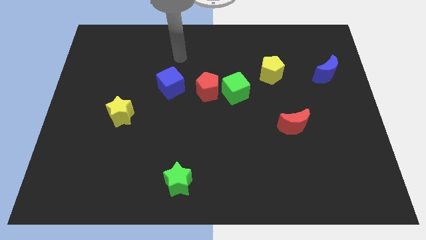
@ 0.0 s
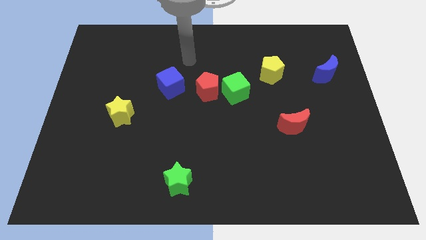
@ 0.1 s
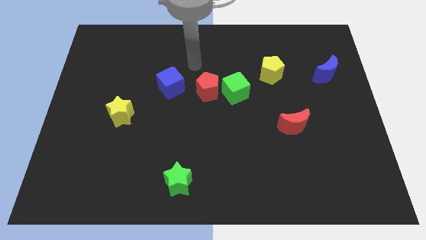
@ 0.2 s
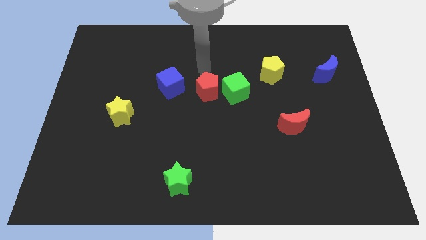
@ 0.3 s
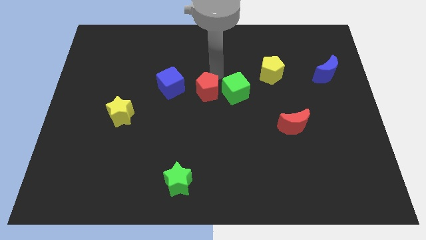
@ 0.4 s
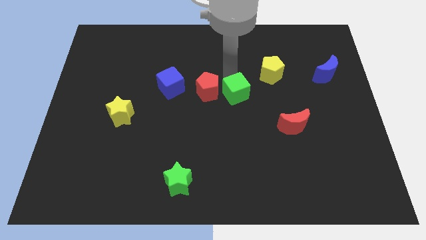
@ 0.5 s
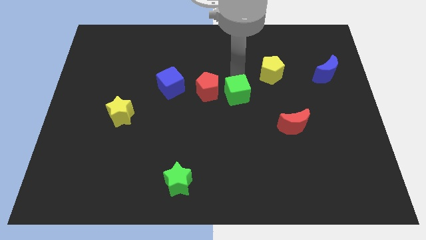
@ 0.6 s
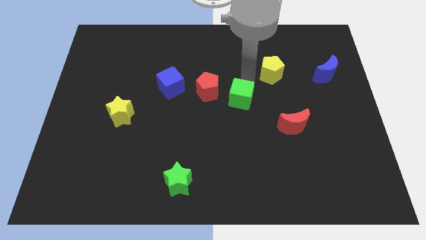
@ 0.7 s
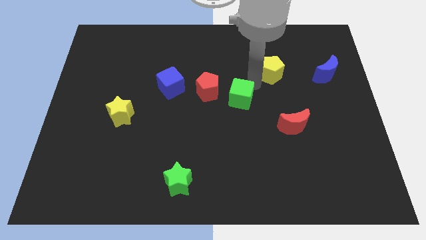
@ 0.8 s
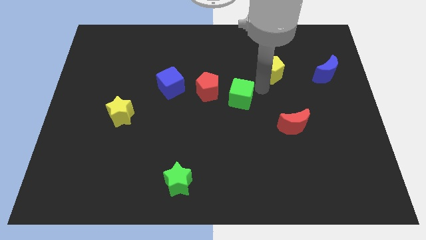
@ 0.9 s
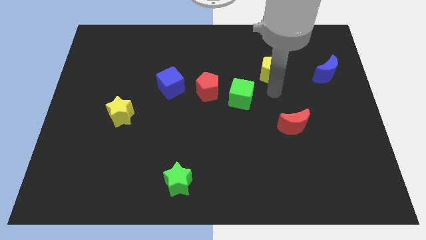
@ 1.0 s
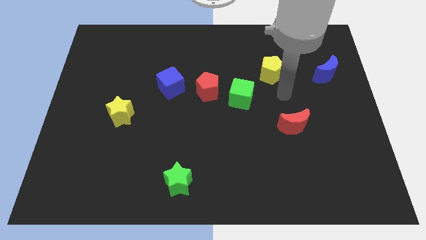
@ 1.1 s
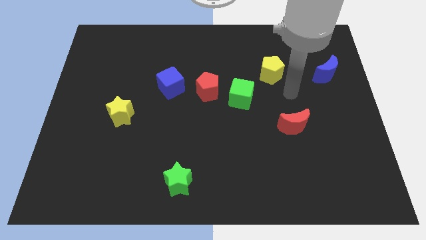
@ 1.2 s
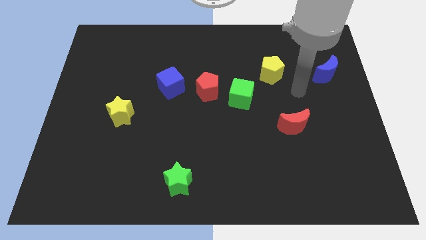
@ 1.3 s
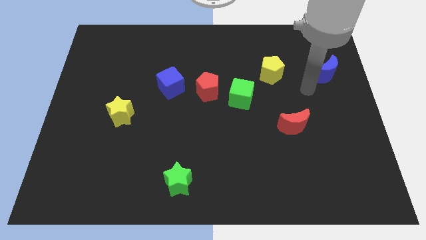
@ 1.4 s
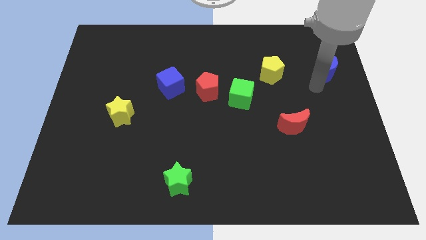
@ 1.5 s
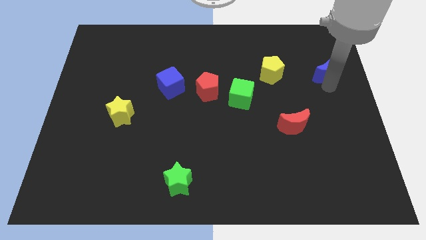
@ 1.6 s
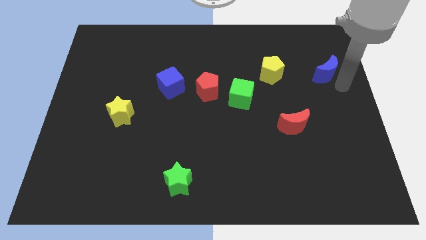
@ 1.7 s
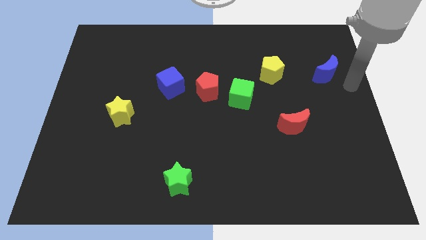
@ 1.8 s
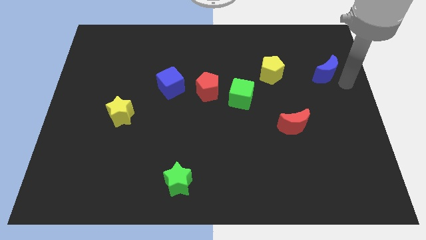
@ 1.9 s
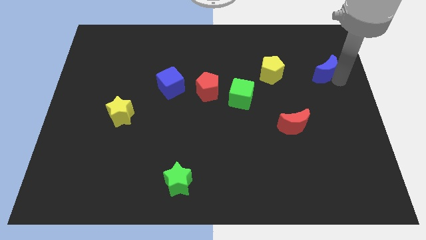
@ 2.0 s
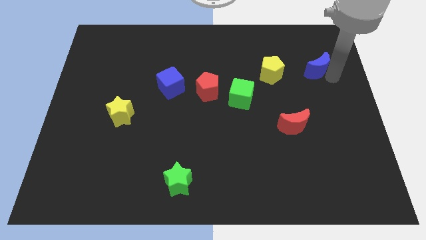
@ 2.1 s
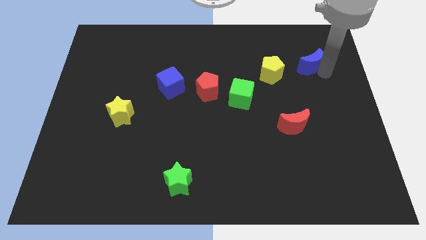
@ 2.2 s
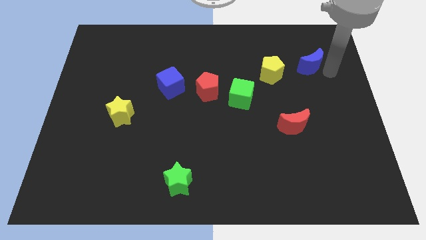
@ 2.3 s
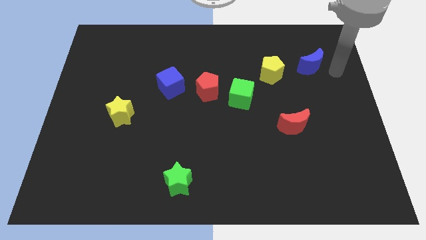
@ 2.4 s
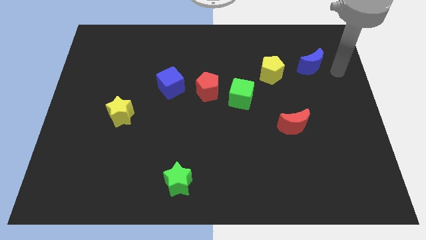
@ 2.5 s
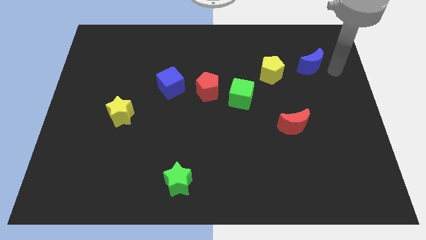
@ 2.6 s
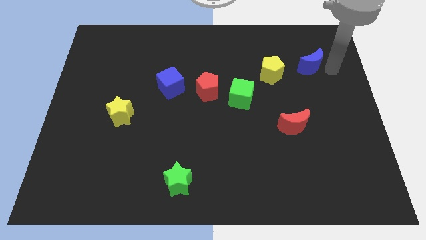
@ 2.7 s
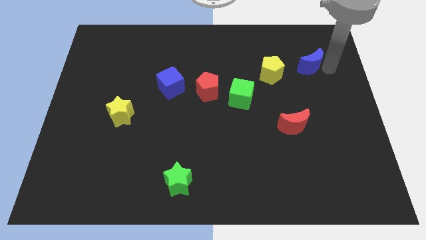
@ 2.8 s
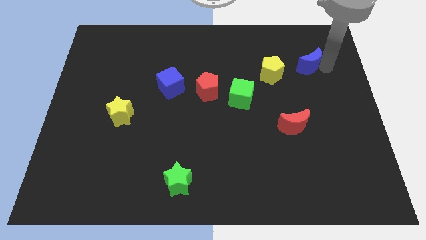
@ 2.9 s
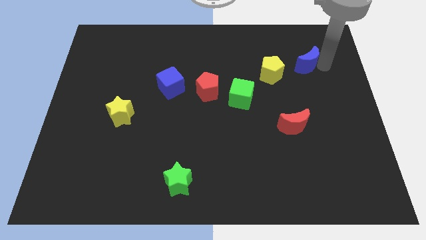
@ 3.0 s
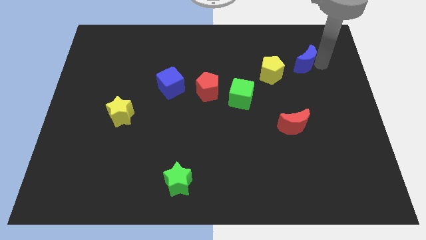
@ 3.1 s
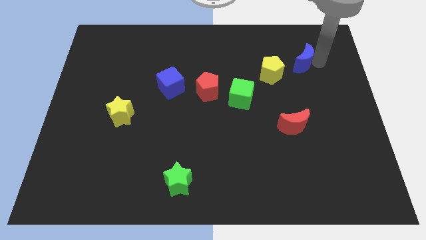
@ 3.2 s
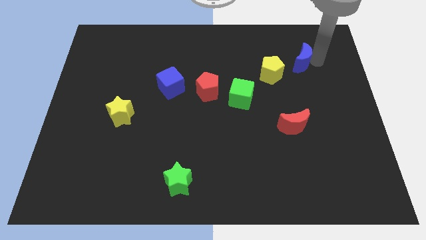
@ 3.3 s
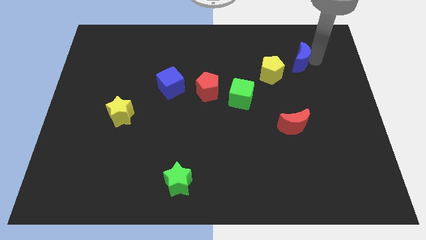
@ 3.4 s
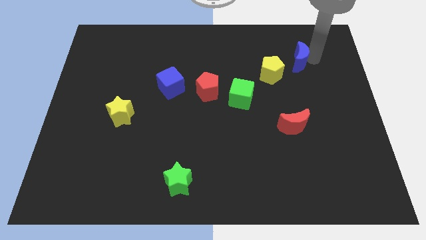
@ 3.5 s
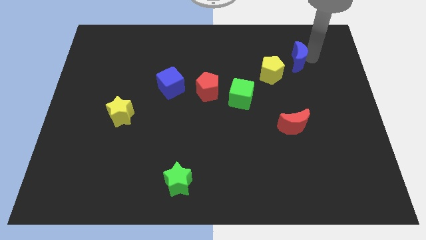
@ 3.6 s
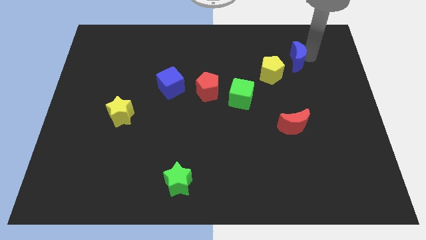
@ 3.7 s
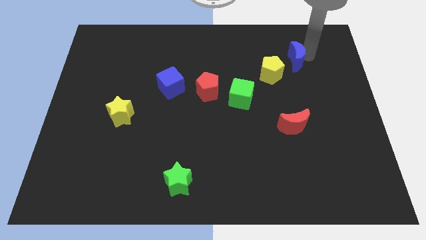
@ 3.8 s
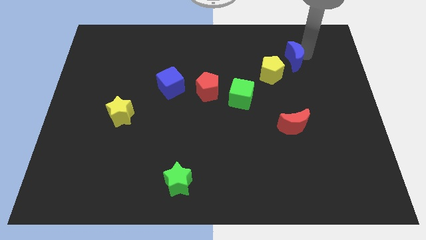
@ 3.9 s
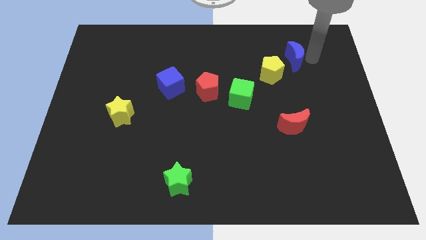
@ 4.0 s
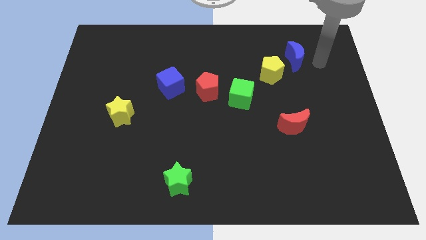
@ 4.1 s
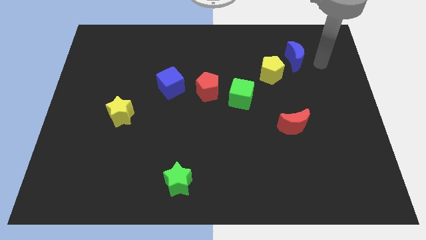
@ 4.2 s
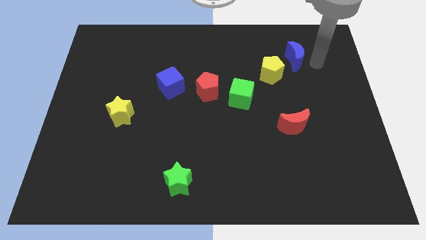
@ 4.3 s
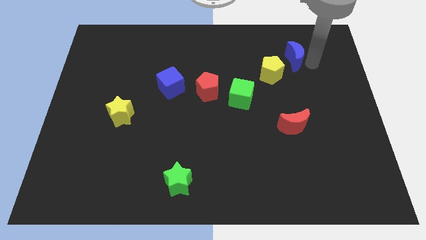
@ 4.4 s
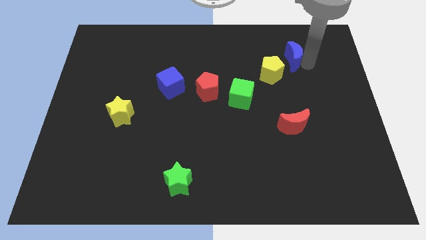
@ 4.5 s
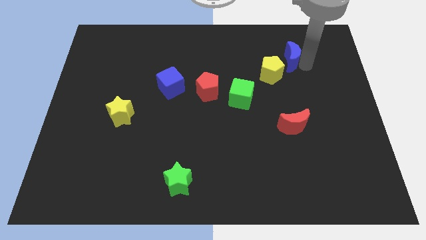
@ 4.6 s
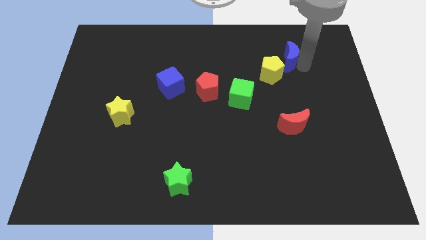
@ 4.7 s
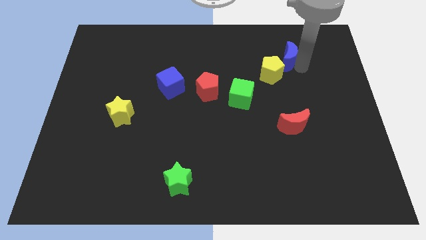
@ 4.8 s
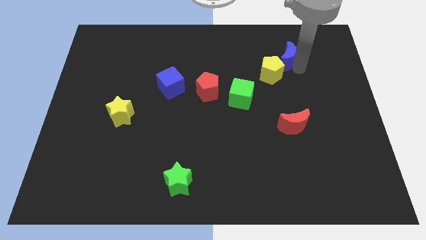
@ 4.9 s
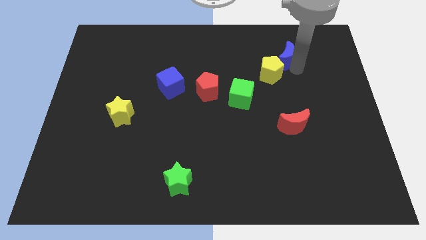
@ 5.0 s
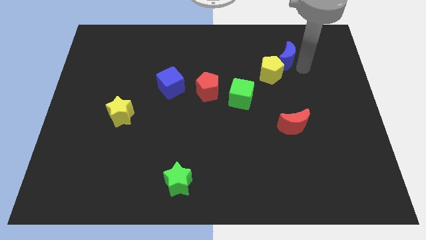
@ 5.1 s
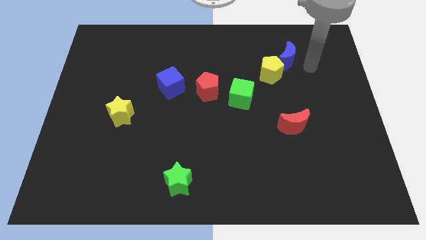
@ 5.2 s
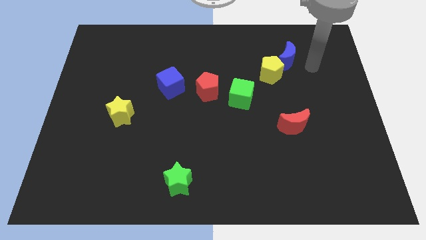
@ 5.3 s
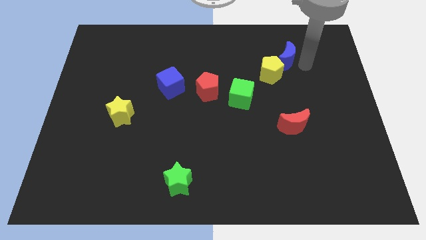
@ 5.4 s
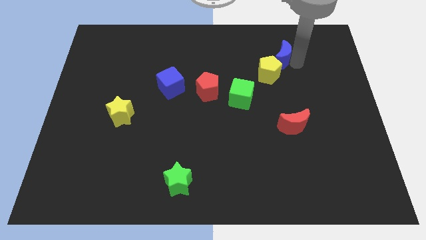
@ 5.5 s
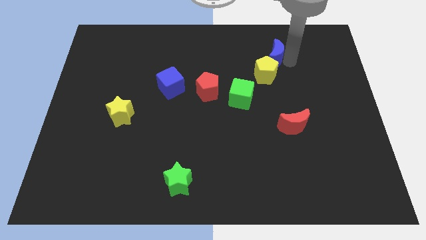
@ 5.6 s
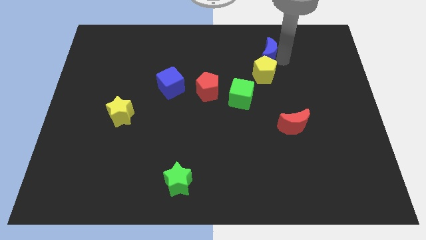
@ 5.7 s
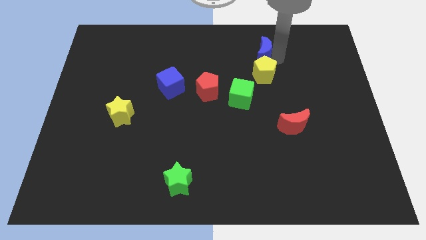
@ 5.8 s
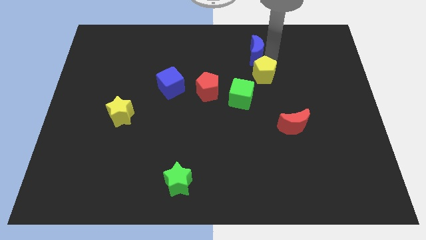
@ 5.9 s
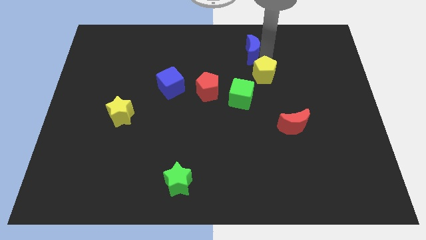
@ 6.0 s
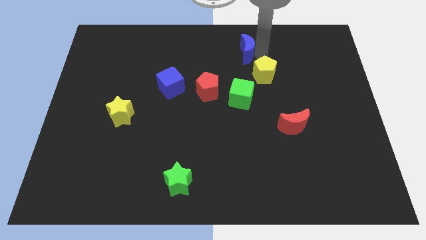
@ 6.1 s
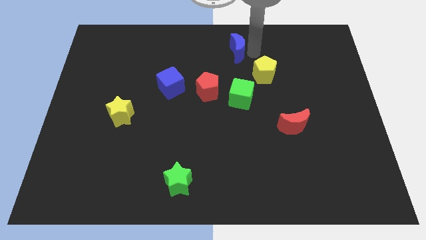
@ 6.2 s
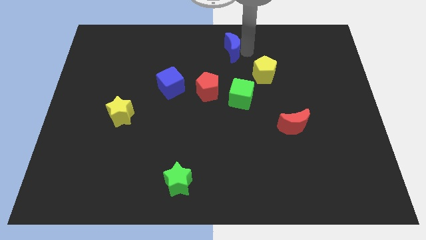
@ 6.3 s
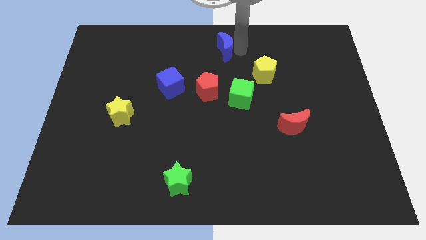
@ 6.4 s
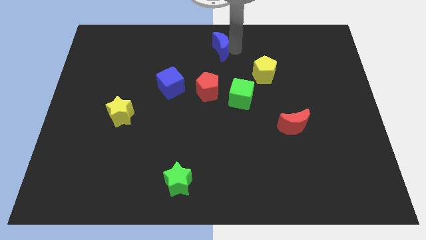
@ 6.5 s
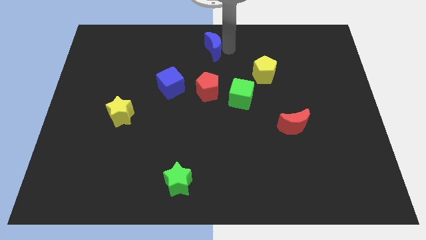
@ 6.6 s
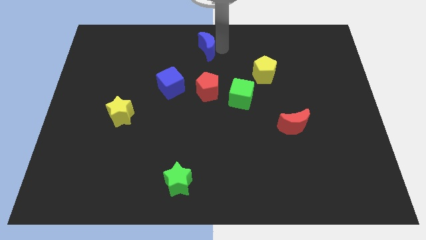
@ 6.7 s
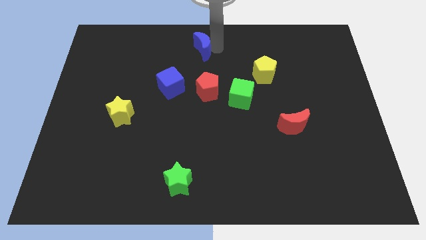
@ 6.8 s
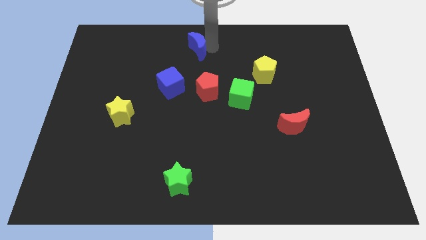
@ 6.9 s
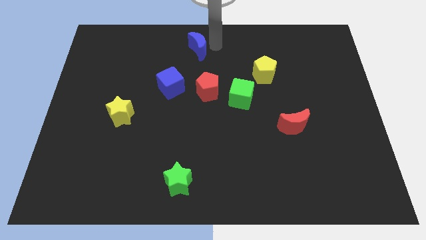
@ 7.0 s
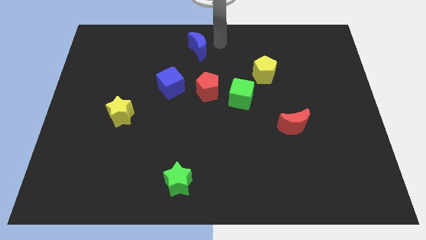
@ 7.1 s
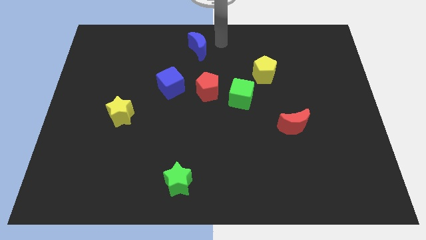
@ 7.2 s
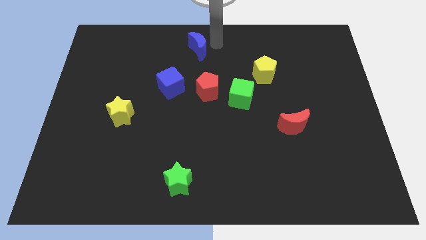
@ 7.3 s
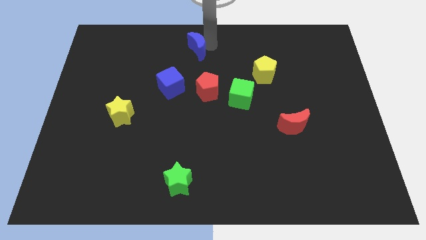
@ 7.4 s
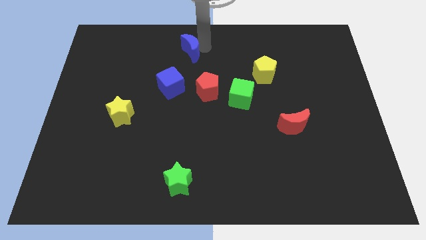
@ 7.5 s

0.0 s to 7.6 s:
slide the blue moon above the blue cube
